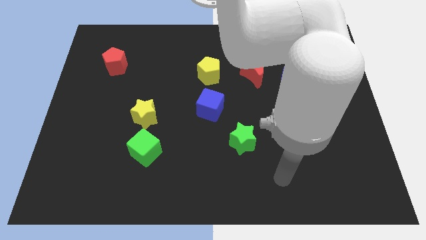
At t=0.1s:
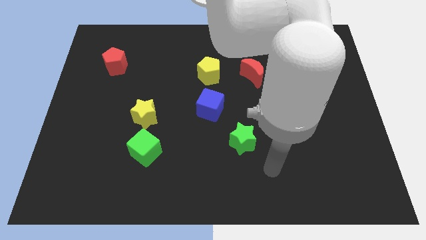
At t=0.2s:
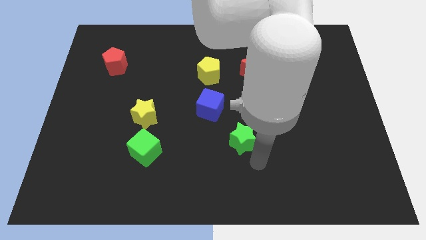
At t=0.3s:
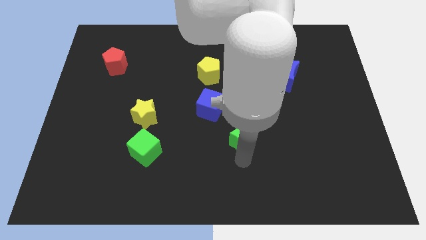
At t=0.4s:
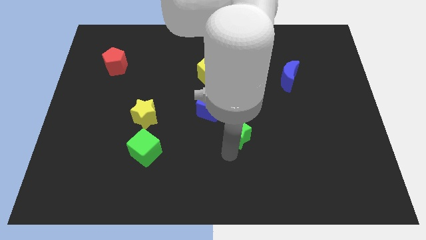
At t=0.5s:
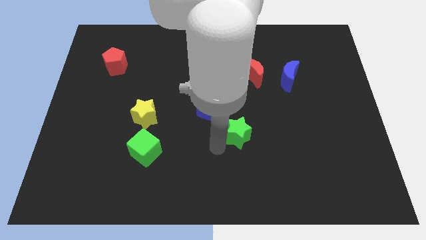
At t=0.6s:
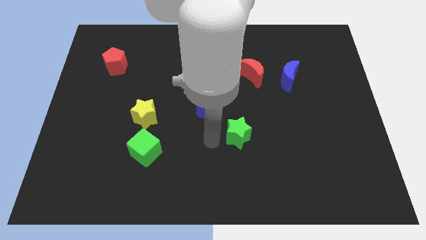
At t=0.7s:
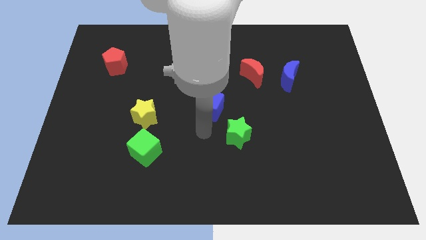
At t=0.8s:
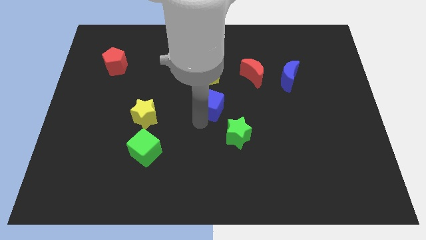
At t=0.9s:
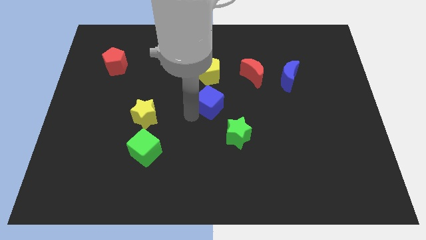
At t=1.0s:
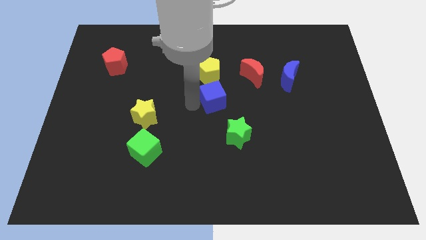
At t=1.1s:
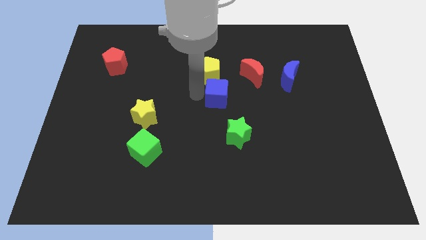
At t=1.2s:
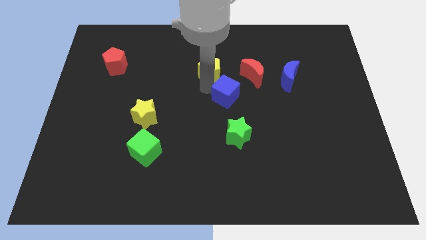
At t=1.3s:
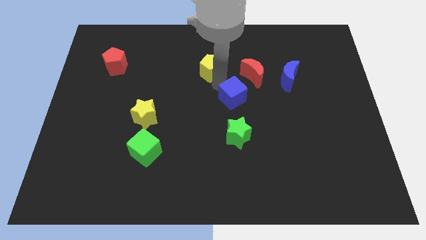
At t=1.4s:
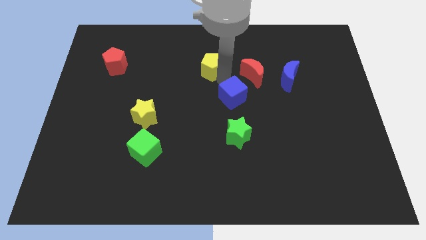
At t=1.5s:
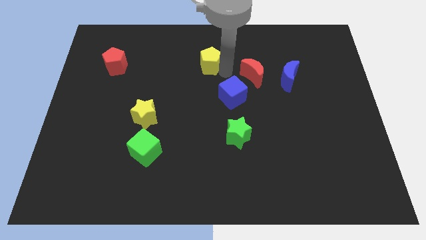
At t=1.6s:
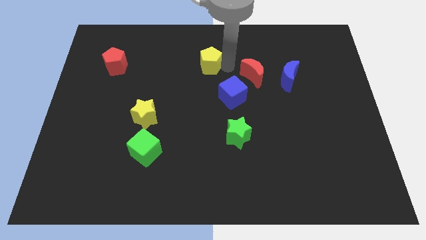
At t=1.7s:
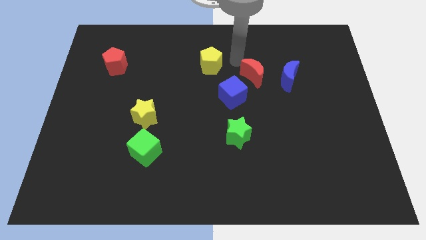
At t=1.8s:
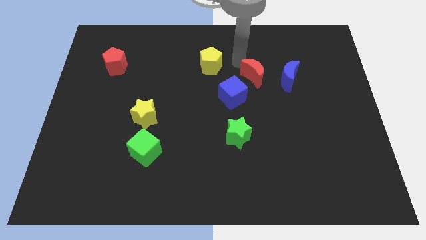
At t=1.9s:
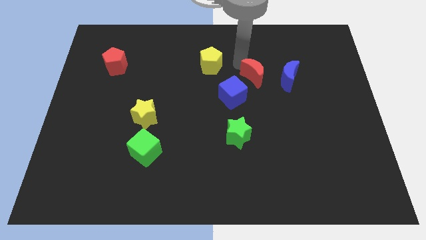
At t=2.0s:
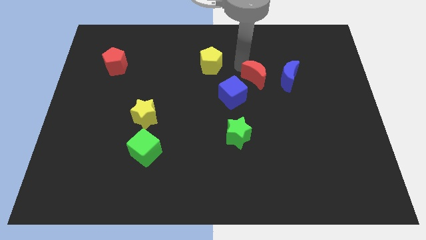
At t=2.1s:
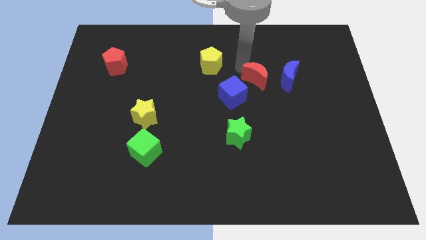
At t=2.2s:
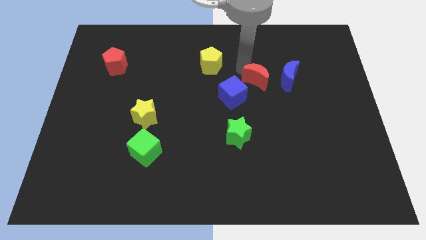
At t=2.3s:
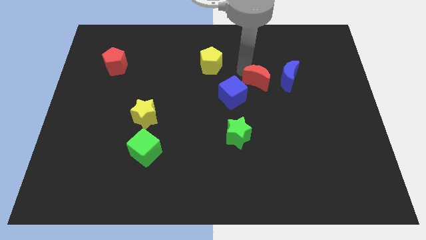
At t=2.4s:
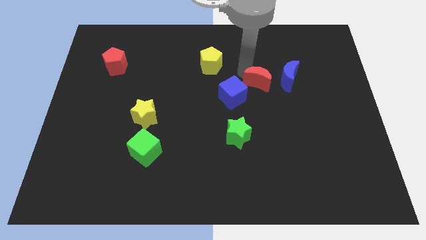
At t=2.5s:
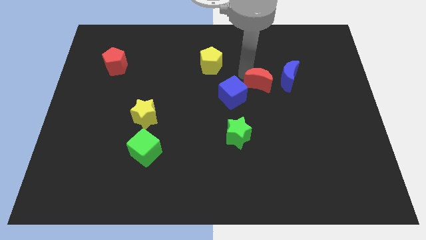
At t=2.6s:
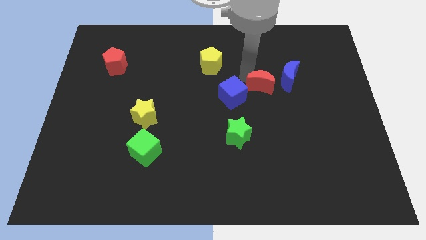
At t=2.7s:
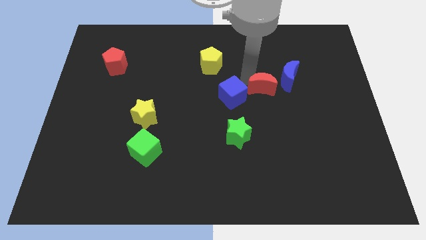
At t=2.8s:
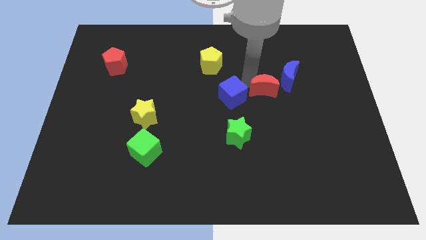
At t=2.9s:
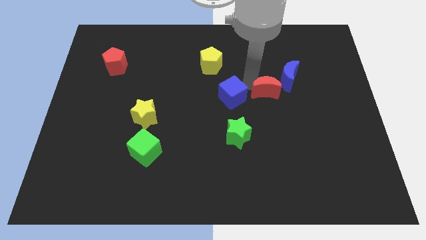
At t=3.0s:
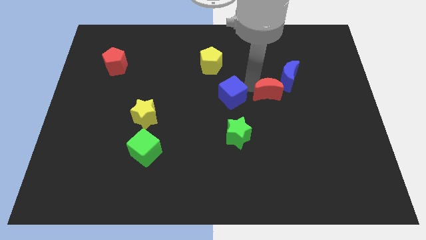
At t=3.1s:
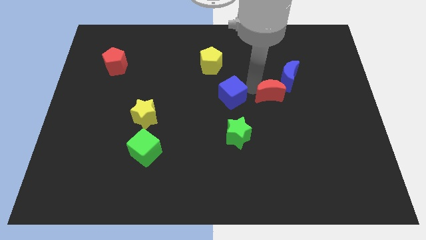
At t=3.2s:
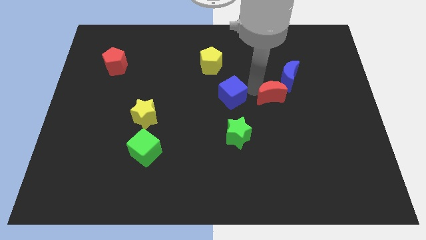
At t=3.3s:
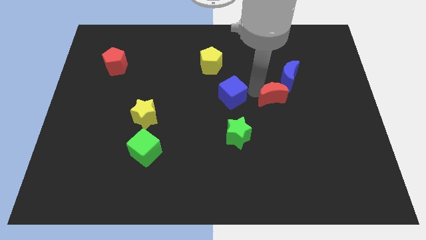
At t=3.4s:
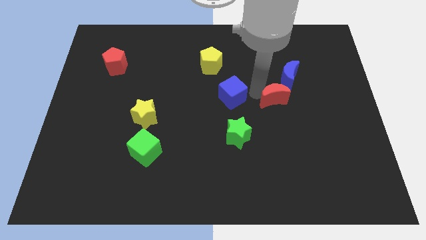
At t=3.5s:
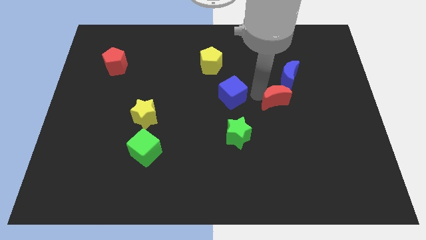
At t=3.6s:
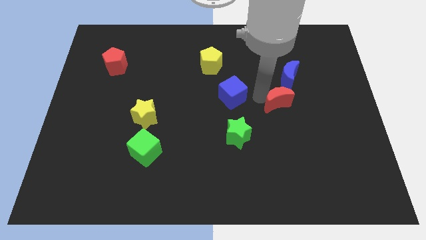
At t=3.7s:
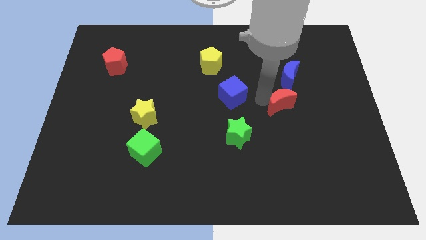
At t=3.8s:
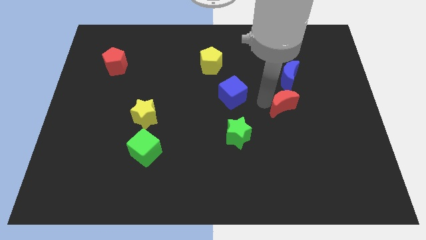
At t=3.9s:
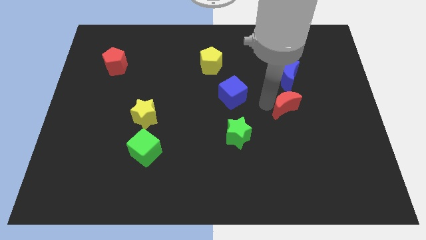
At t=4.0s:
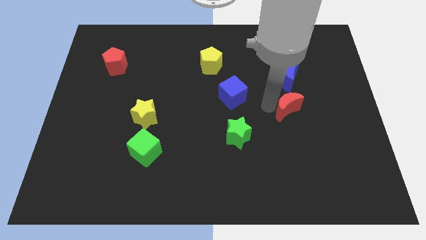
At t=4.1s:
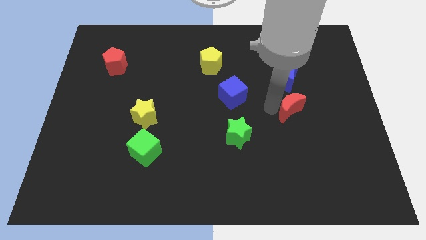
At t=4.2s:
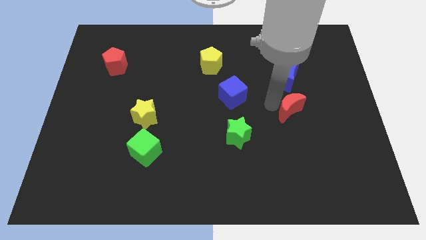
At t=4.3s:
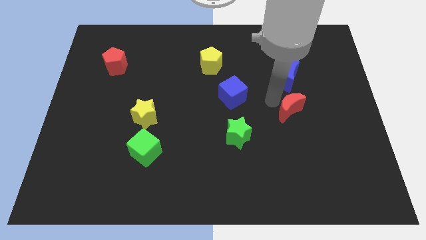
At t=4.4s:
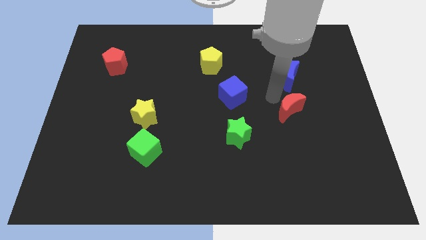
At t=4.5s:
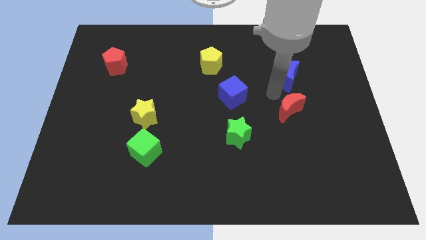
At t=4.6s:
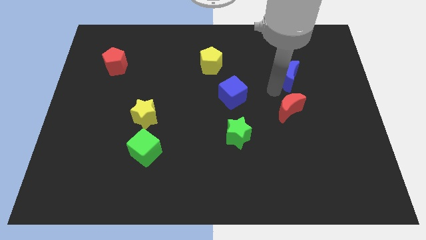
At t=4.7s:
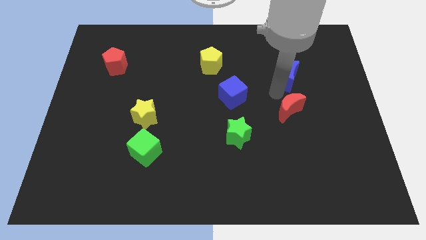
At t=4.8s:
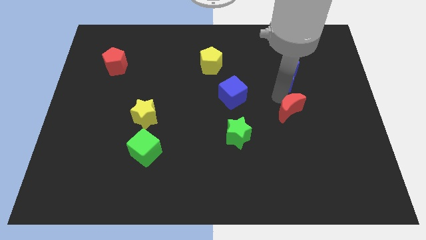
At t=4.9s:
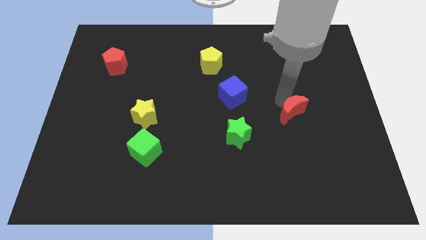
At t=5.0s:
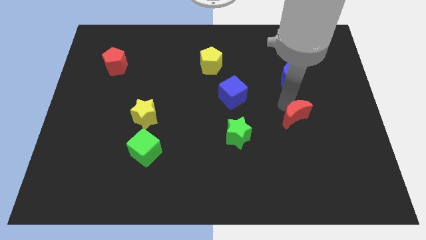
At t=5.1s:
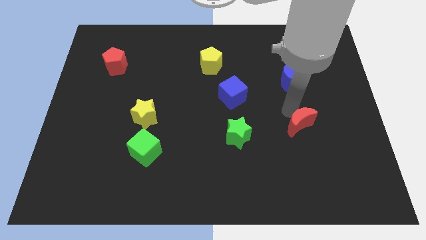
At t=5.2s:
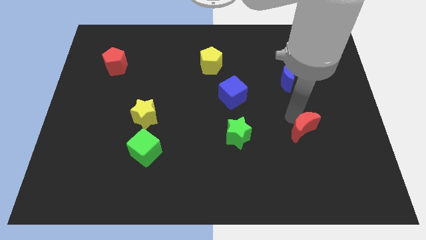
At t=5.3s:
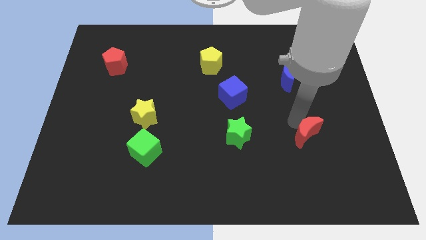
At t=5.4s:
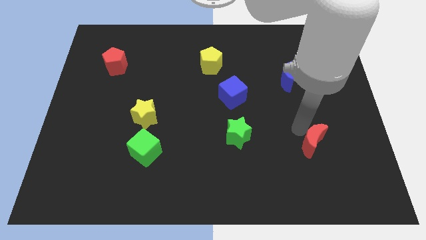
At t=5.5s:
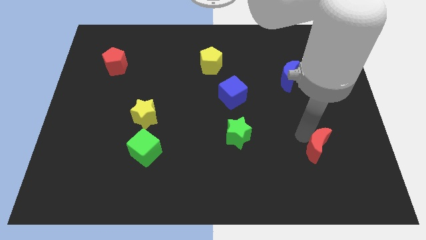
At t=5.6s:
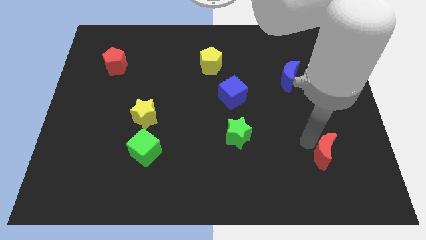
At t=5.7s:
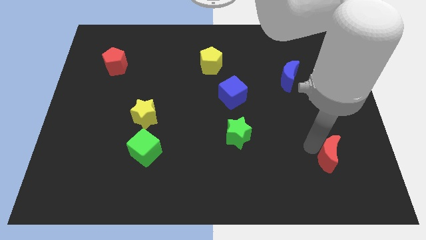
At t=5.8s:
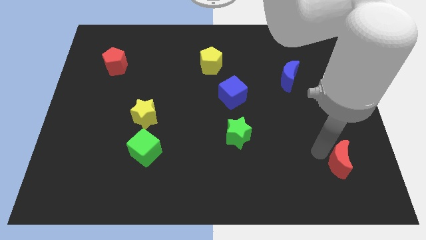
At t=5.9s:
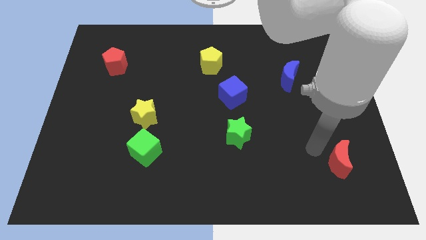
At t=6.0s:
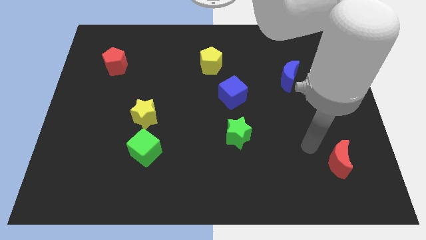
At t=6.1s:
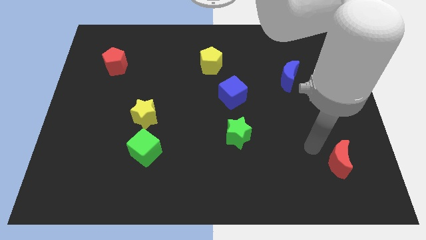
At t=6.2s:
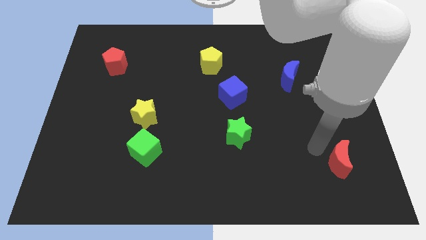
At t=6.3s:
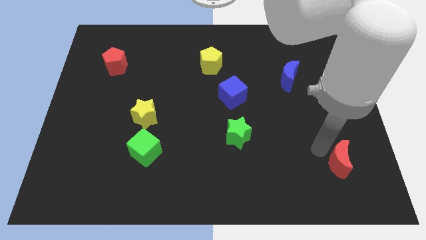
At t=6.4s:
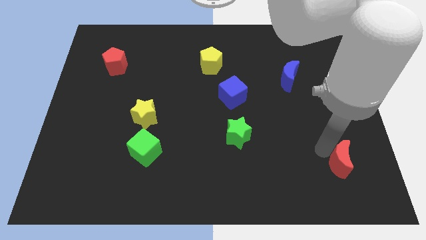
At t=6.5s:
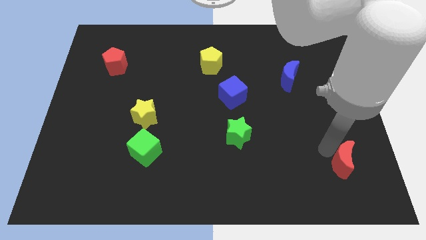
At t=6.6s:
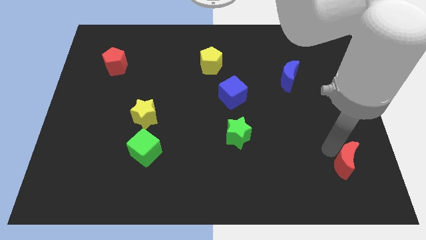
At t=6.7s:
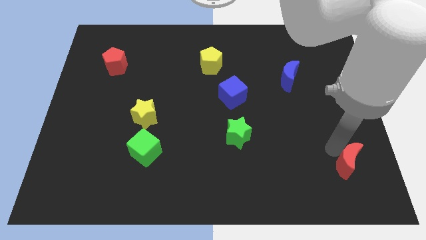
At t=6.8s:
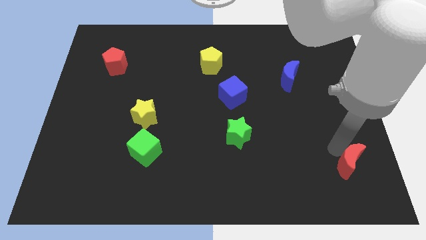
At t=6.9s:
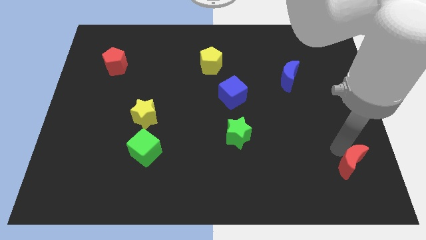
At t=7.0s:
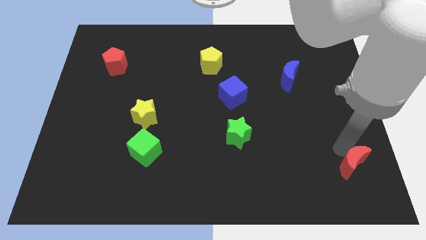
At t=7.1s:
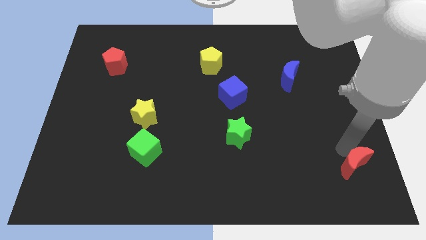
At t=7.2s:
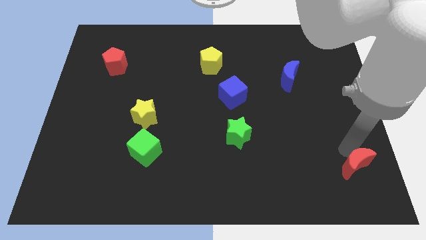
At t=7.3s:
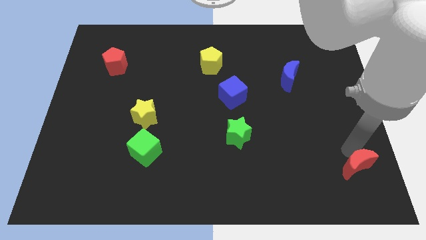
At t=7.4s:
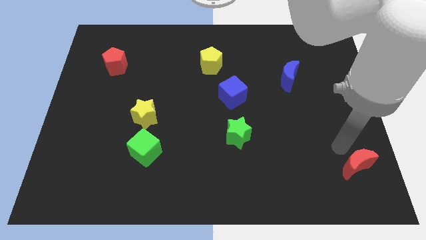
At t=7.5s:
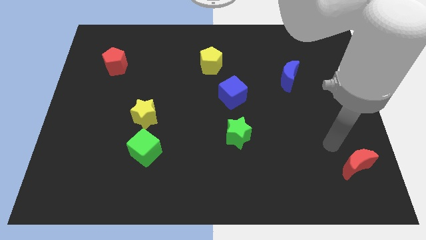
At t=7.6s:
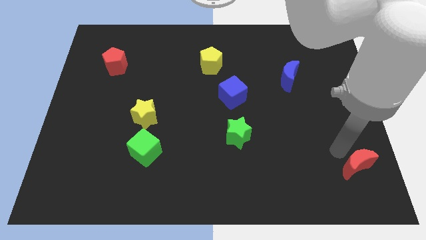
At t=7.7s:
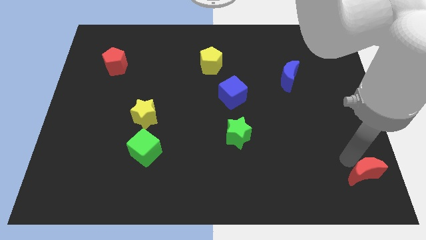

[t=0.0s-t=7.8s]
move the red moon to the bottom right of the board
